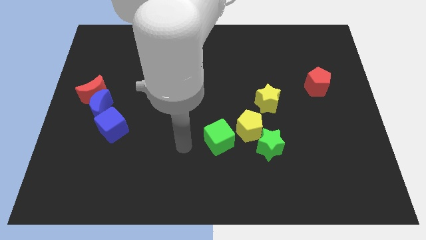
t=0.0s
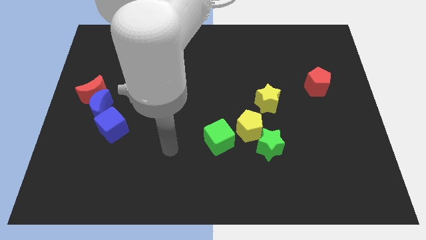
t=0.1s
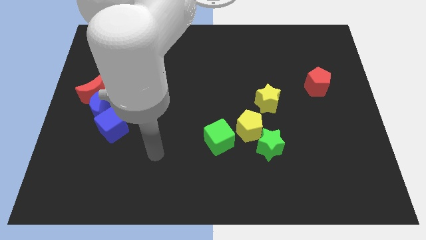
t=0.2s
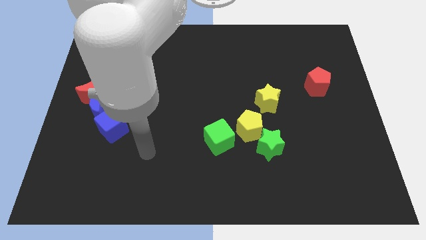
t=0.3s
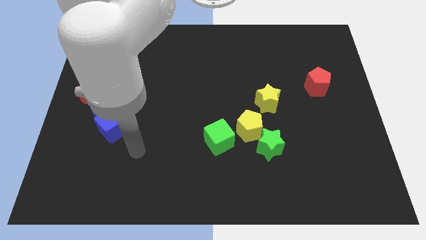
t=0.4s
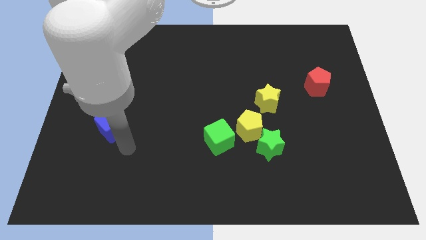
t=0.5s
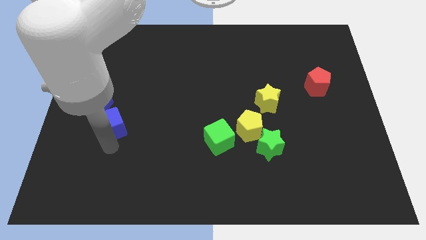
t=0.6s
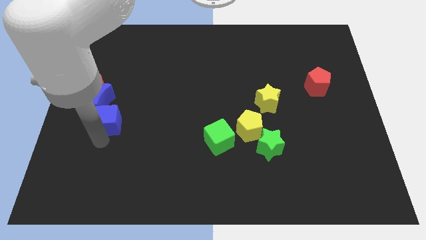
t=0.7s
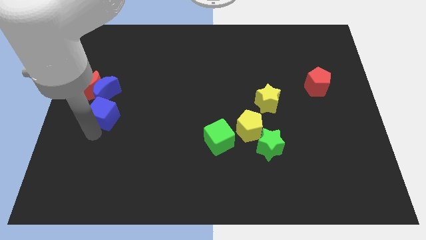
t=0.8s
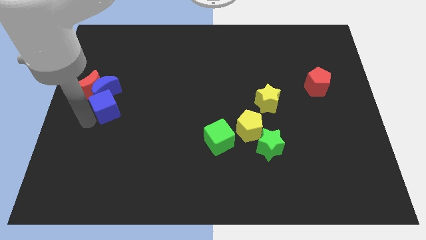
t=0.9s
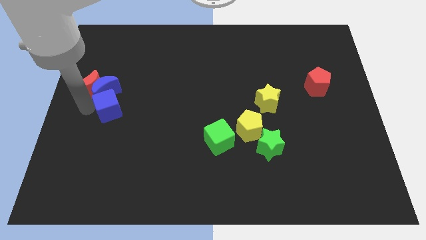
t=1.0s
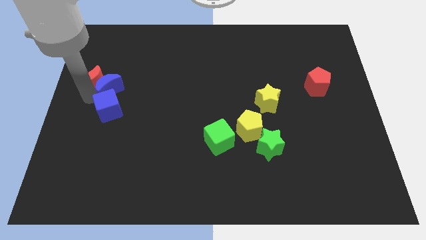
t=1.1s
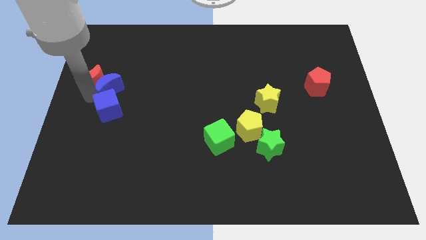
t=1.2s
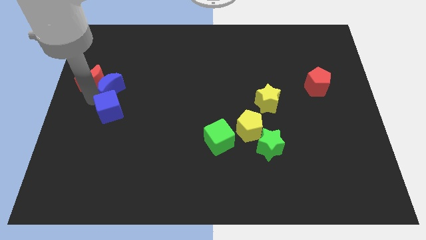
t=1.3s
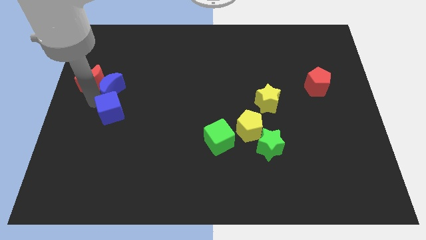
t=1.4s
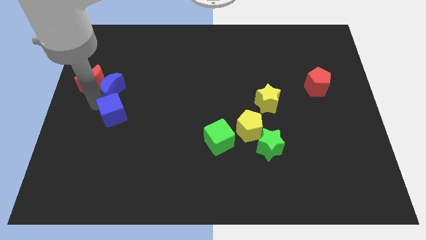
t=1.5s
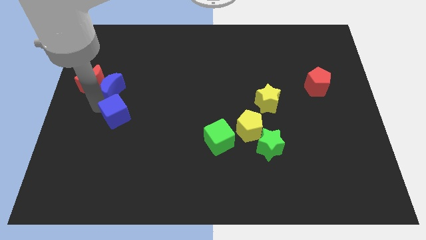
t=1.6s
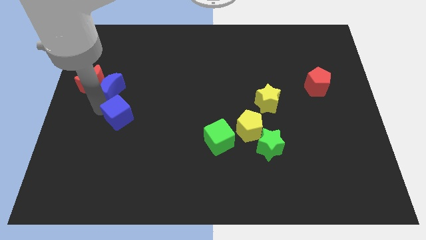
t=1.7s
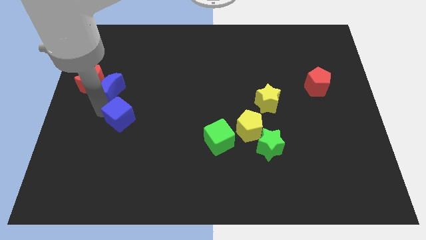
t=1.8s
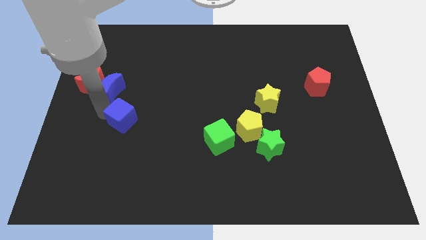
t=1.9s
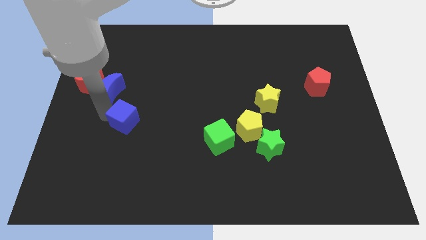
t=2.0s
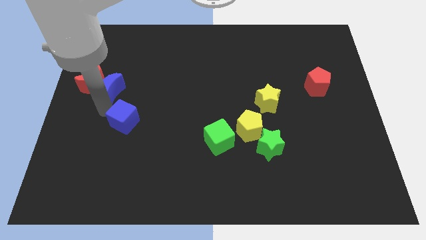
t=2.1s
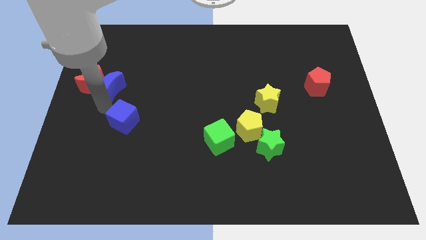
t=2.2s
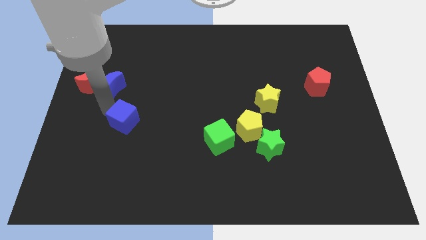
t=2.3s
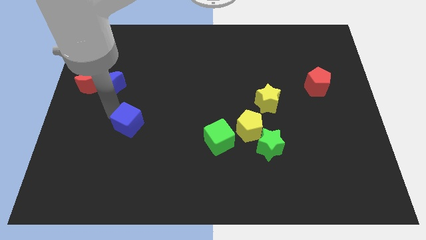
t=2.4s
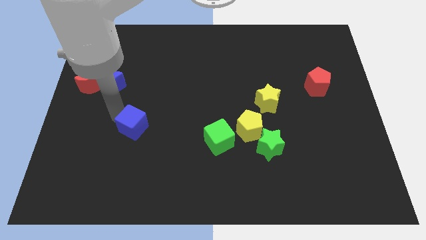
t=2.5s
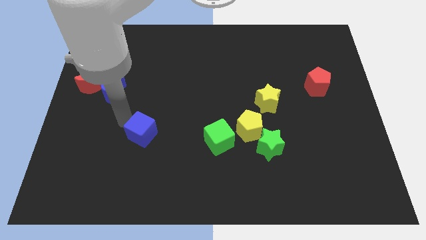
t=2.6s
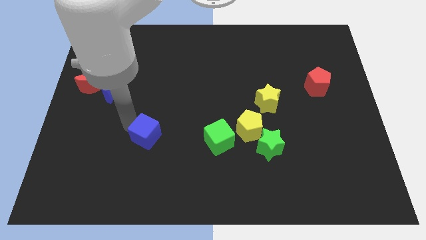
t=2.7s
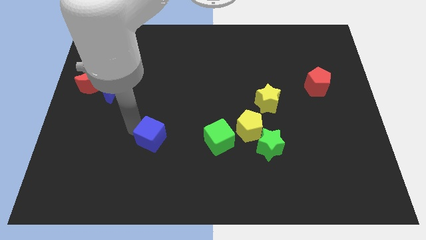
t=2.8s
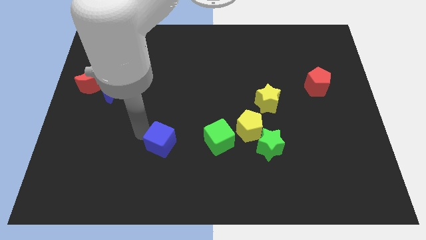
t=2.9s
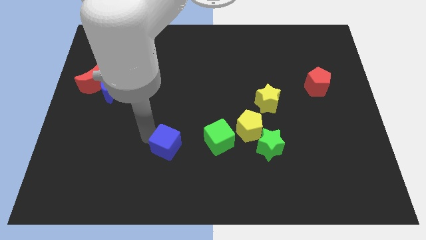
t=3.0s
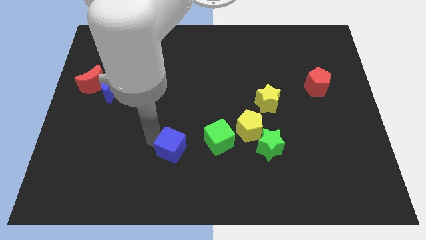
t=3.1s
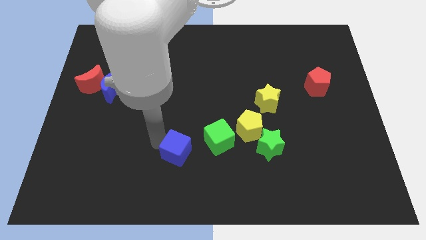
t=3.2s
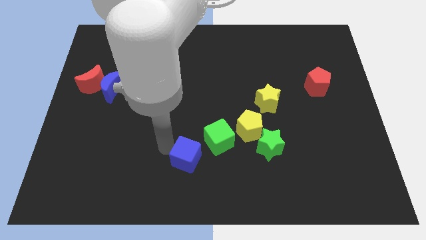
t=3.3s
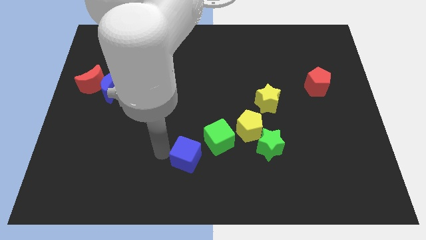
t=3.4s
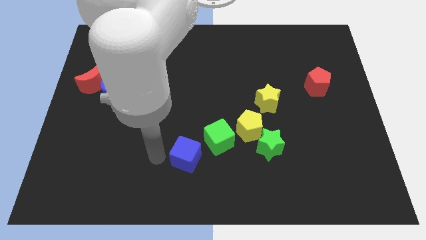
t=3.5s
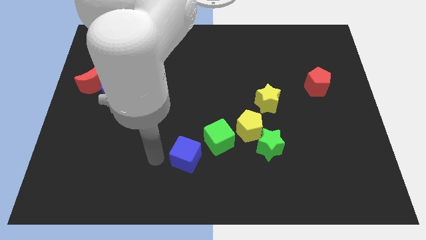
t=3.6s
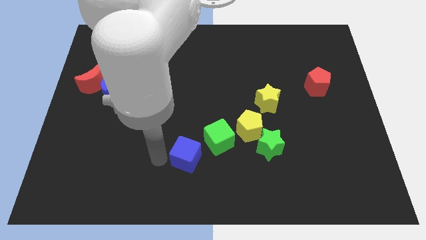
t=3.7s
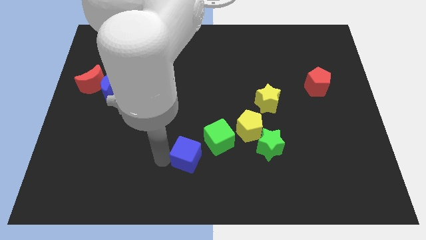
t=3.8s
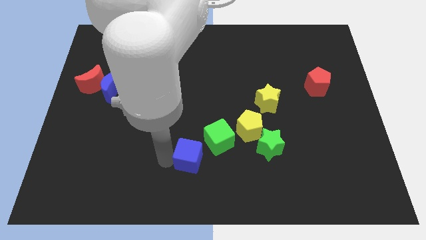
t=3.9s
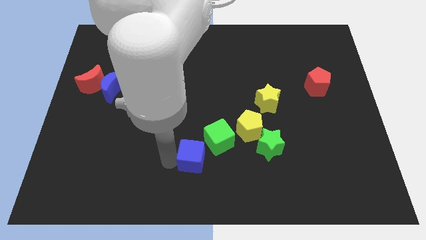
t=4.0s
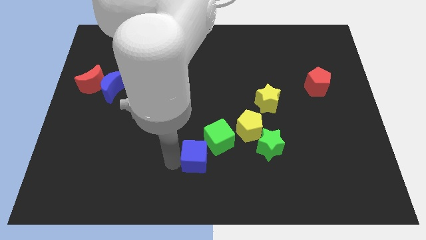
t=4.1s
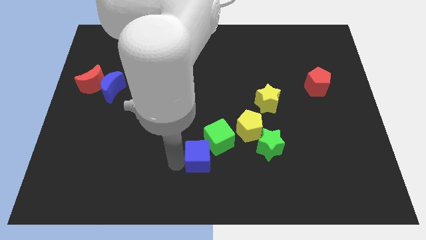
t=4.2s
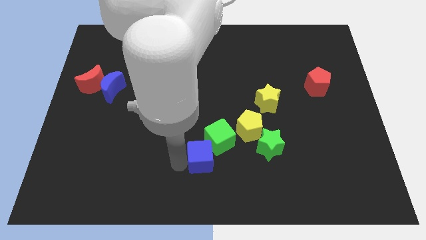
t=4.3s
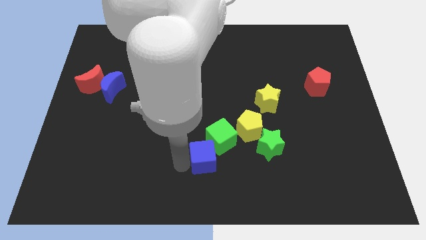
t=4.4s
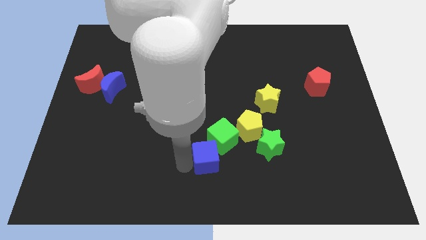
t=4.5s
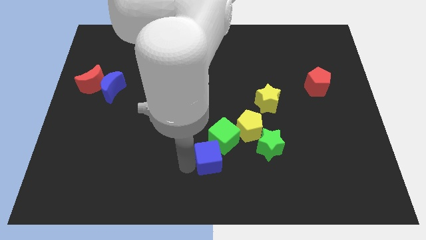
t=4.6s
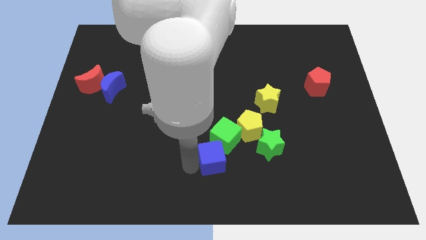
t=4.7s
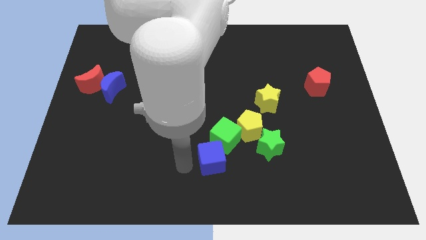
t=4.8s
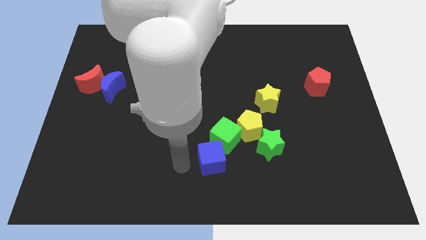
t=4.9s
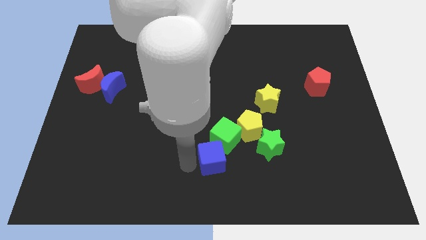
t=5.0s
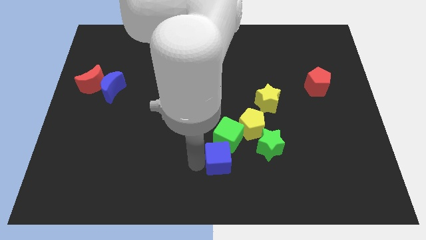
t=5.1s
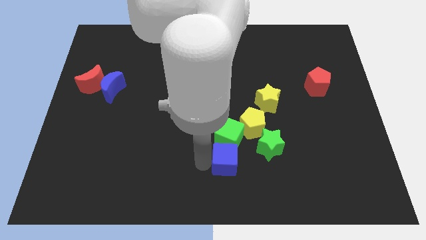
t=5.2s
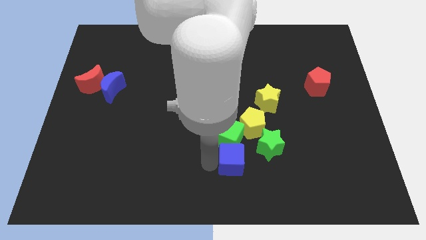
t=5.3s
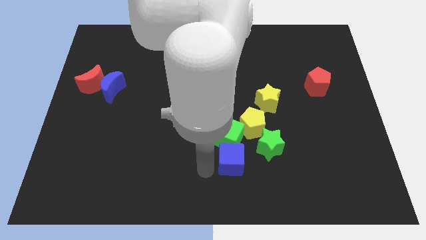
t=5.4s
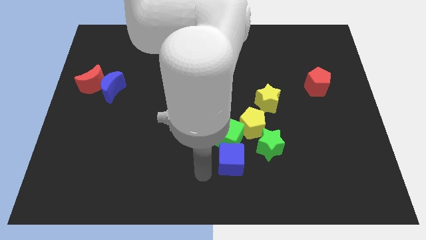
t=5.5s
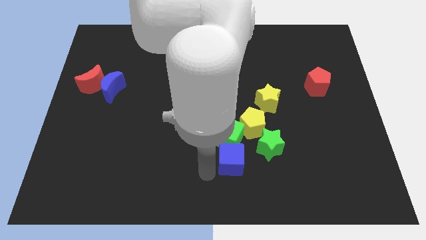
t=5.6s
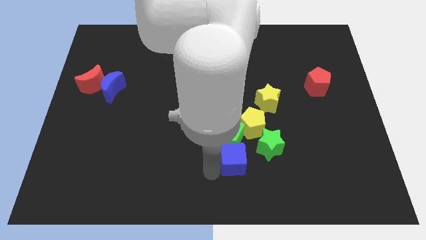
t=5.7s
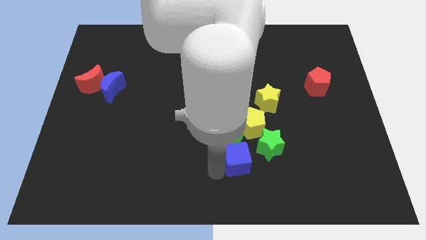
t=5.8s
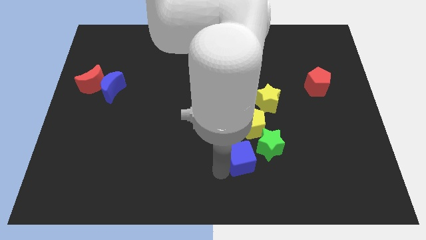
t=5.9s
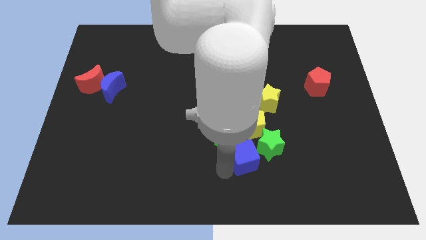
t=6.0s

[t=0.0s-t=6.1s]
move the blue cube close to the green star

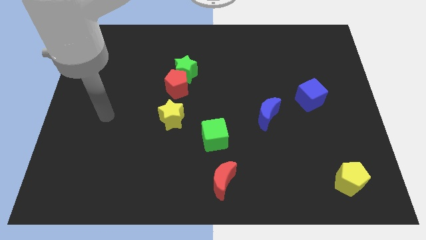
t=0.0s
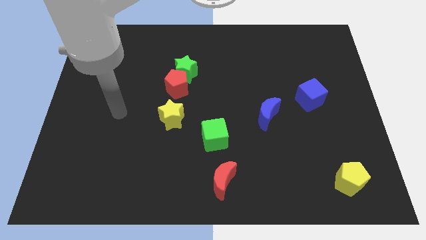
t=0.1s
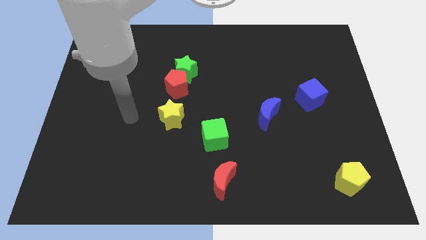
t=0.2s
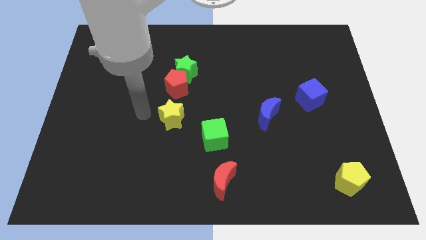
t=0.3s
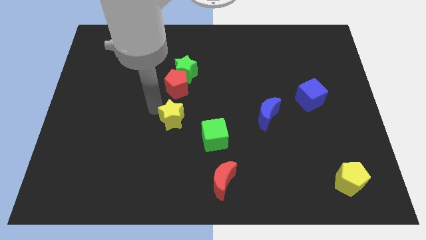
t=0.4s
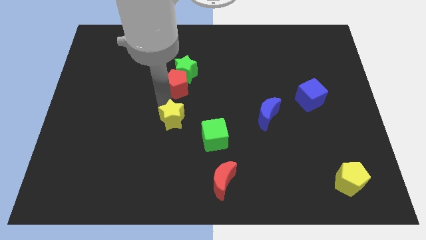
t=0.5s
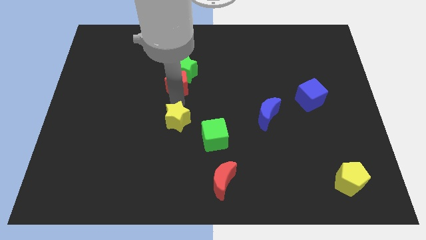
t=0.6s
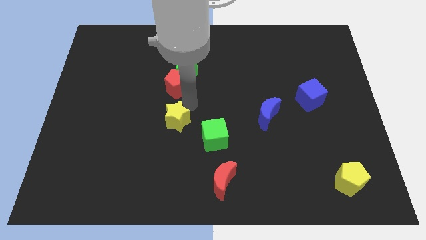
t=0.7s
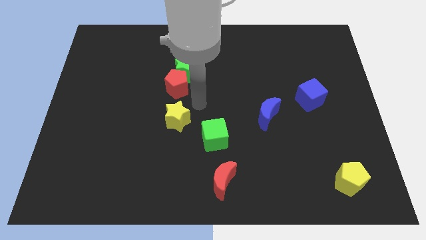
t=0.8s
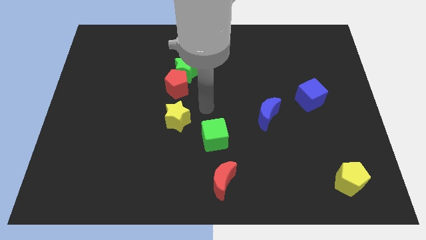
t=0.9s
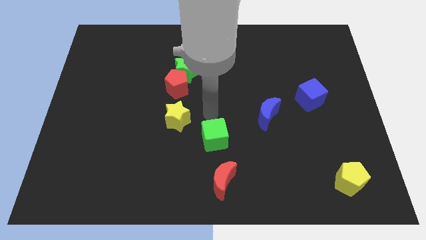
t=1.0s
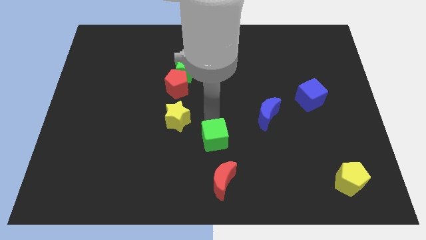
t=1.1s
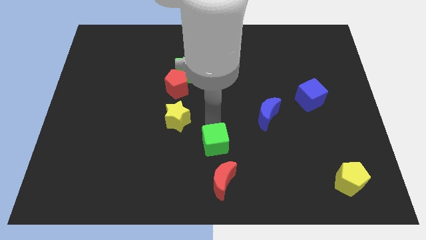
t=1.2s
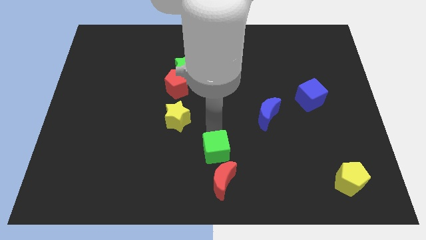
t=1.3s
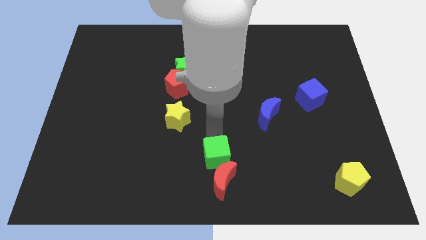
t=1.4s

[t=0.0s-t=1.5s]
push the green cube next to the red moon
